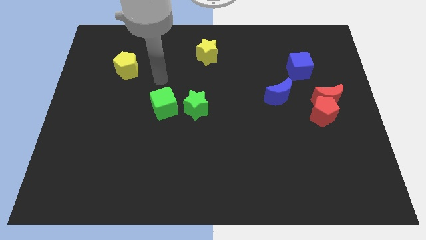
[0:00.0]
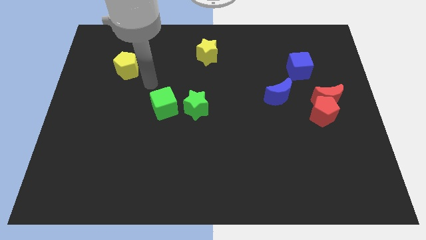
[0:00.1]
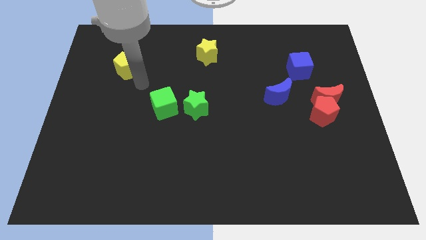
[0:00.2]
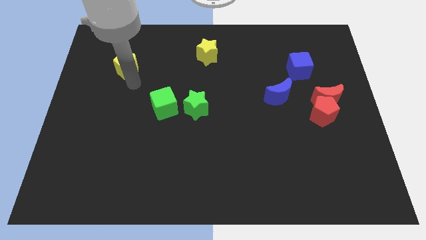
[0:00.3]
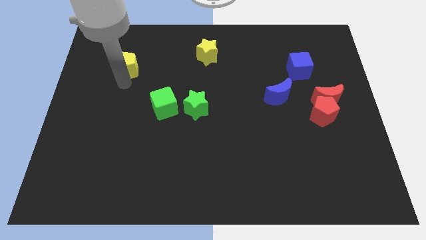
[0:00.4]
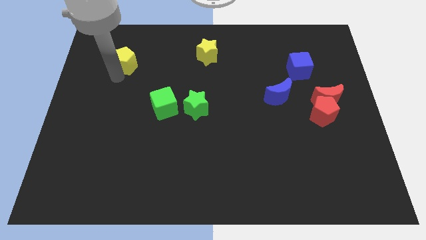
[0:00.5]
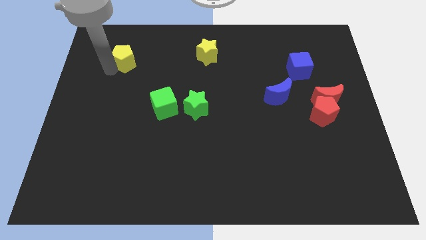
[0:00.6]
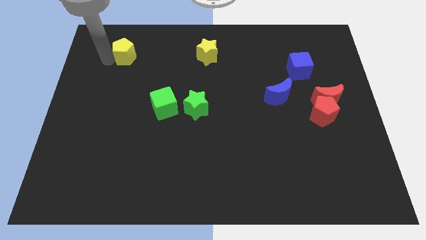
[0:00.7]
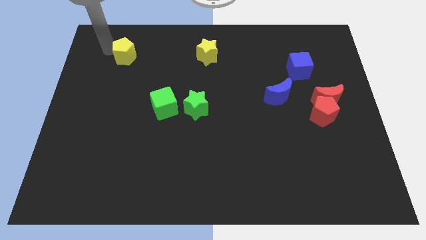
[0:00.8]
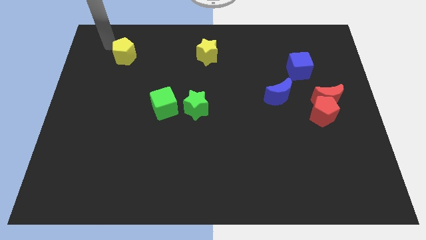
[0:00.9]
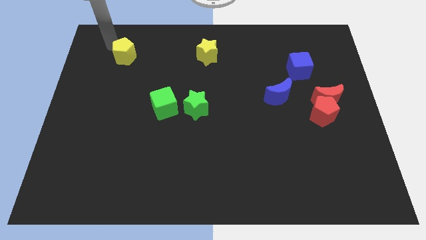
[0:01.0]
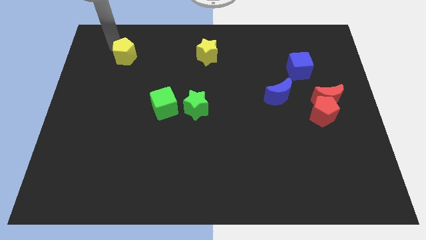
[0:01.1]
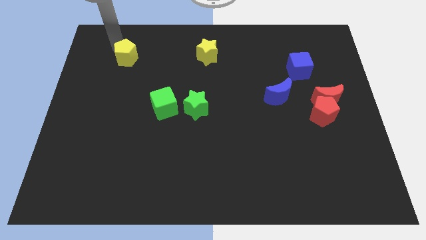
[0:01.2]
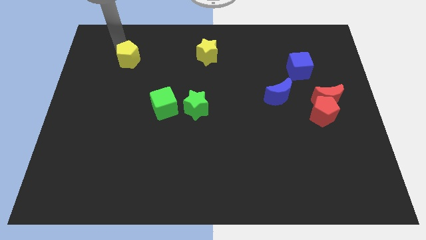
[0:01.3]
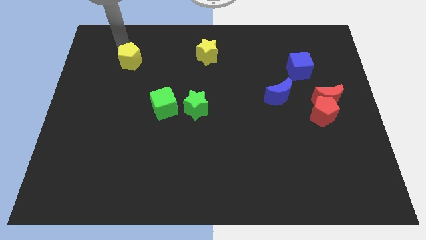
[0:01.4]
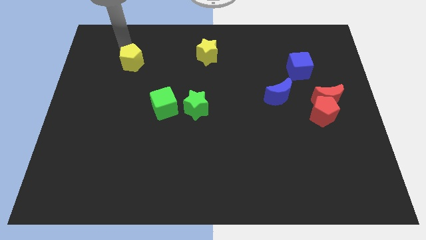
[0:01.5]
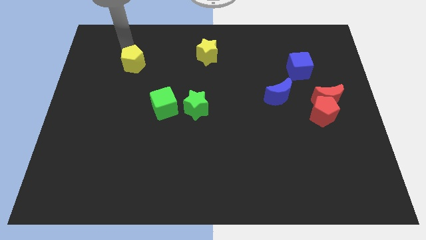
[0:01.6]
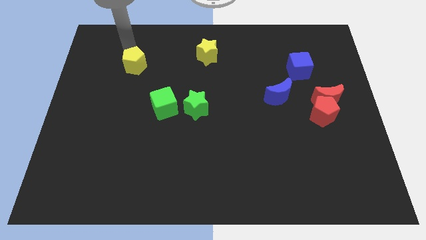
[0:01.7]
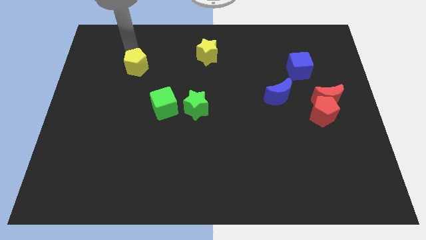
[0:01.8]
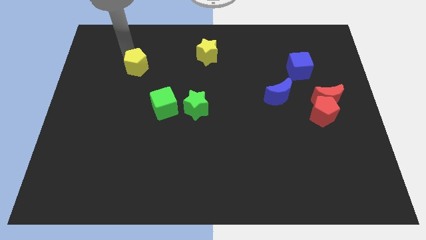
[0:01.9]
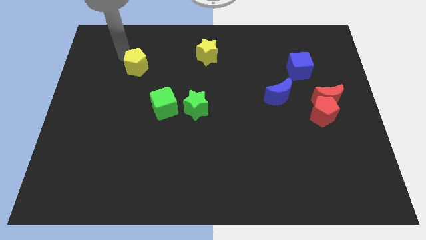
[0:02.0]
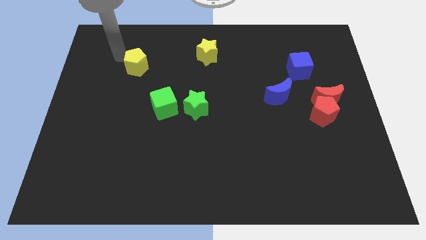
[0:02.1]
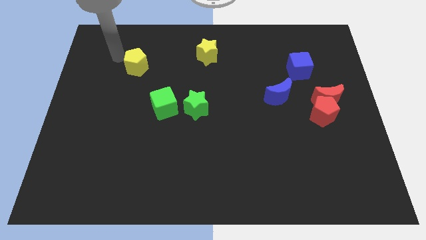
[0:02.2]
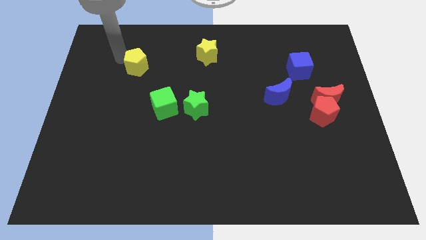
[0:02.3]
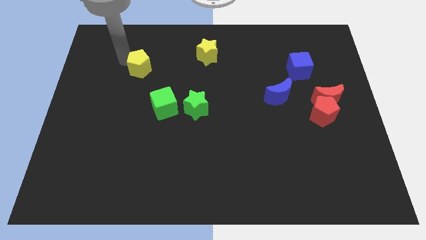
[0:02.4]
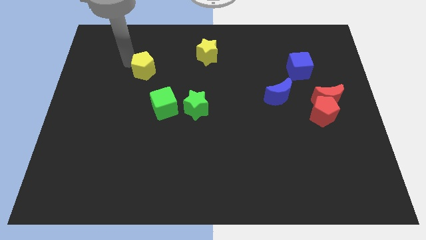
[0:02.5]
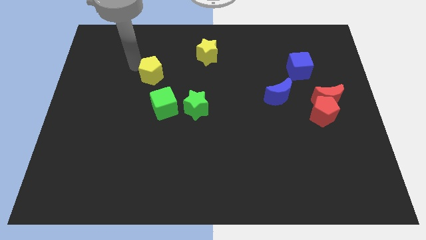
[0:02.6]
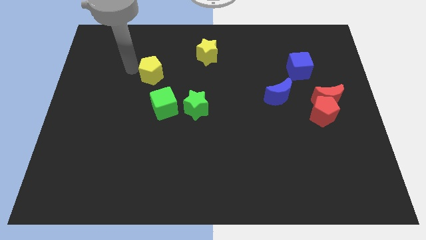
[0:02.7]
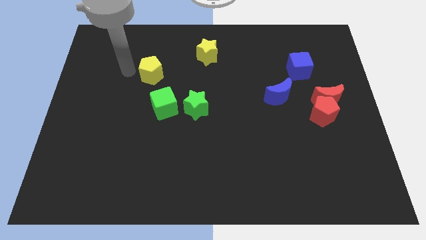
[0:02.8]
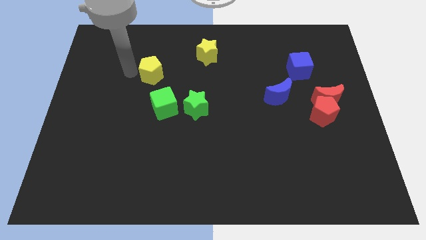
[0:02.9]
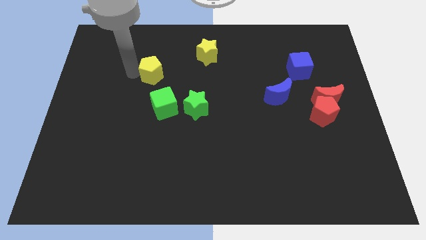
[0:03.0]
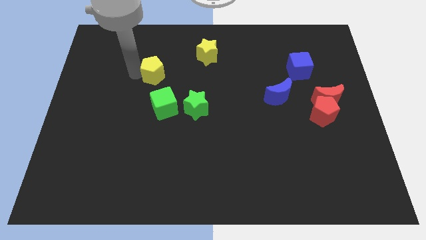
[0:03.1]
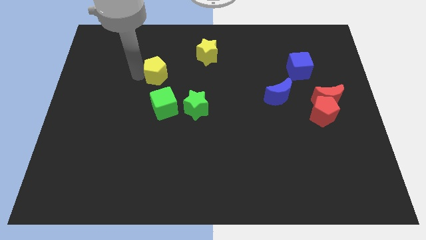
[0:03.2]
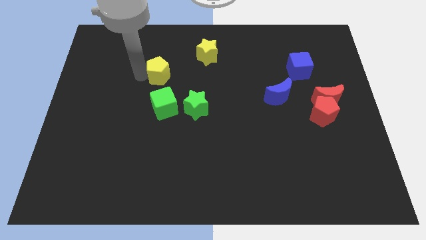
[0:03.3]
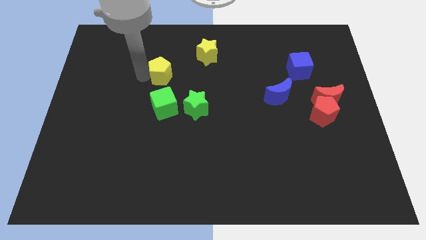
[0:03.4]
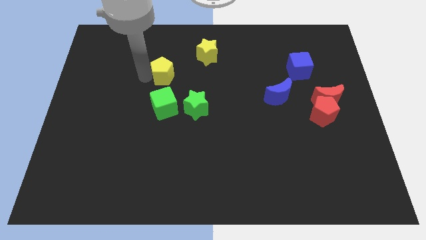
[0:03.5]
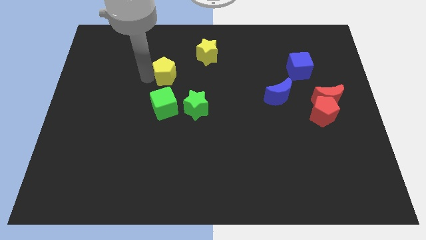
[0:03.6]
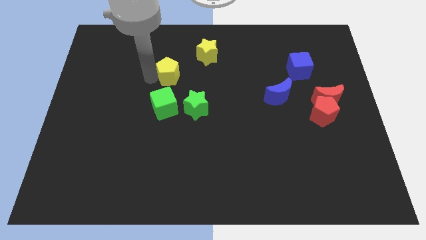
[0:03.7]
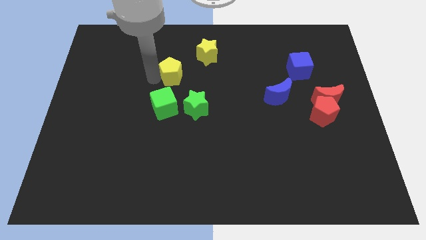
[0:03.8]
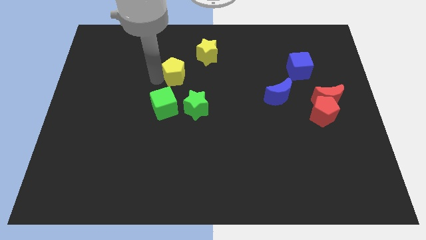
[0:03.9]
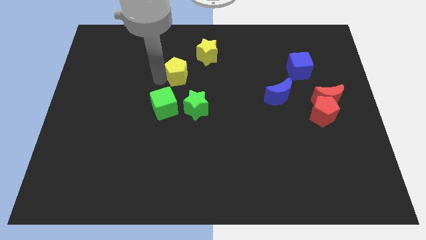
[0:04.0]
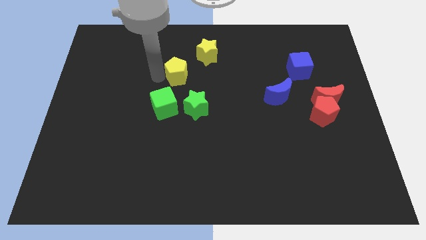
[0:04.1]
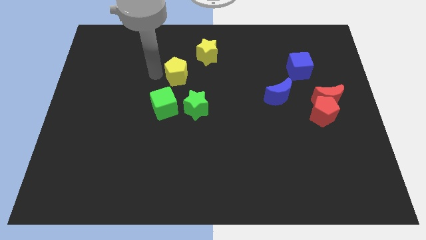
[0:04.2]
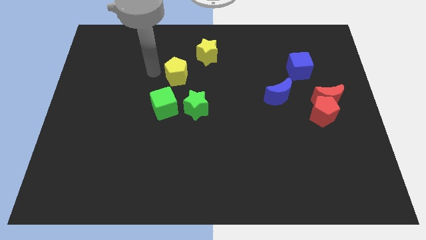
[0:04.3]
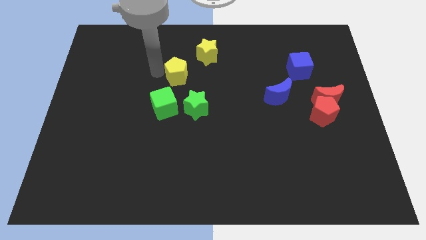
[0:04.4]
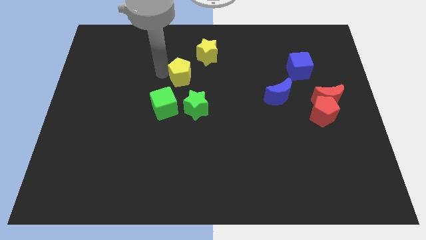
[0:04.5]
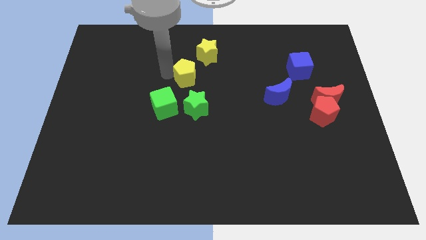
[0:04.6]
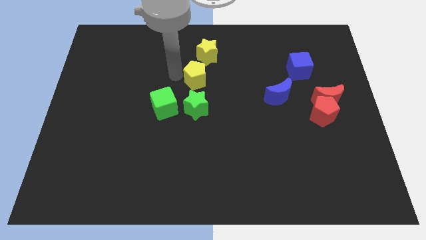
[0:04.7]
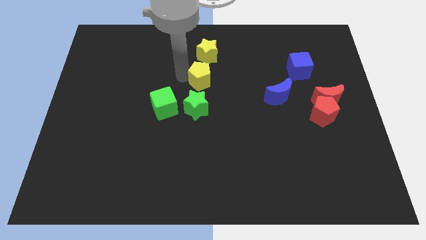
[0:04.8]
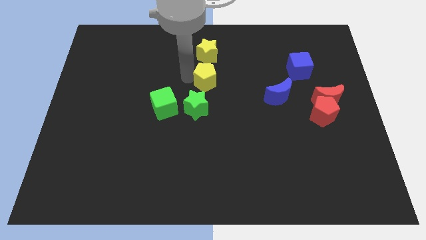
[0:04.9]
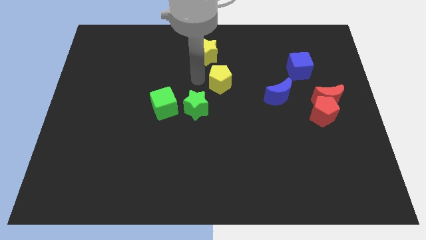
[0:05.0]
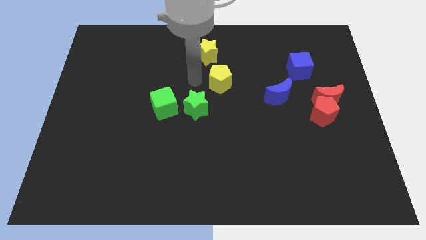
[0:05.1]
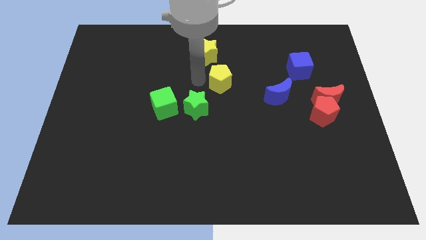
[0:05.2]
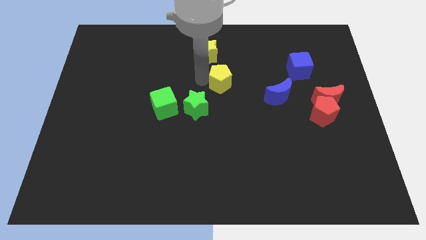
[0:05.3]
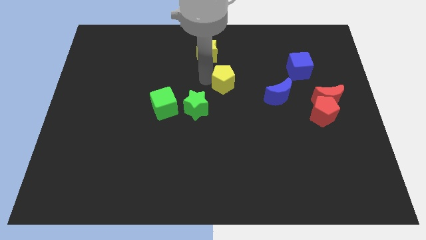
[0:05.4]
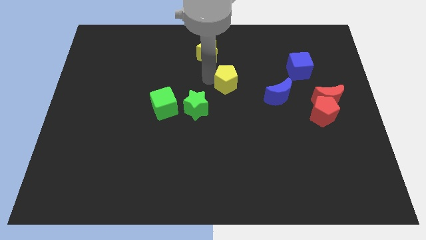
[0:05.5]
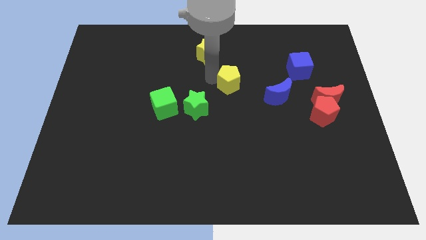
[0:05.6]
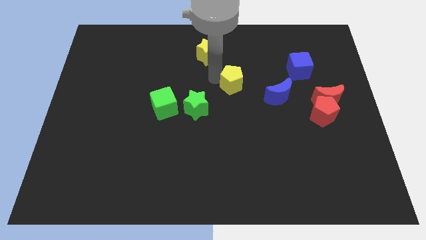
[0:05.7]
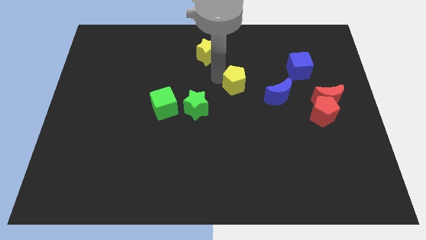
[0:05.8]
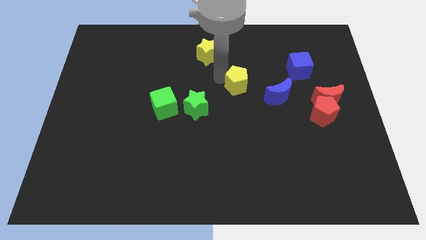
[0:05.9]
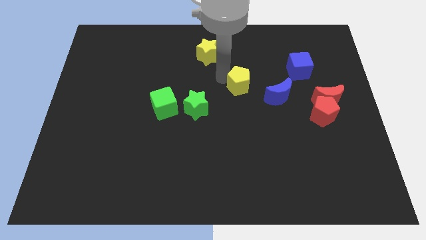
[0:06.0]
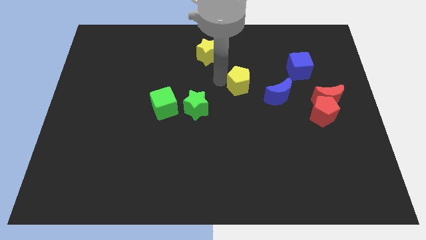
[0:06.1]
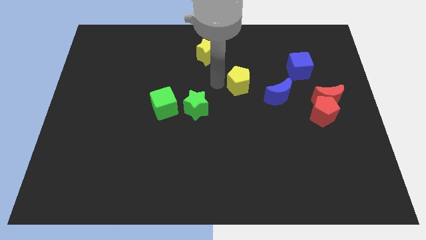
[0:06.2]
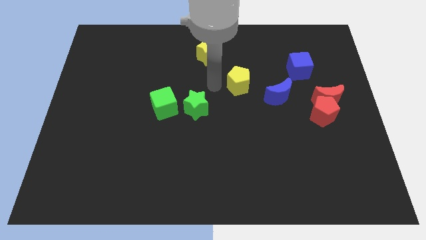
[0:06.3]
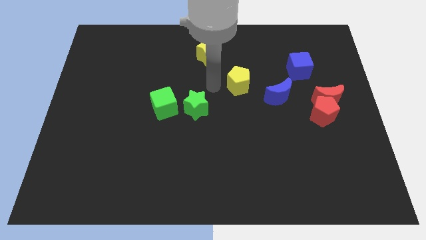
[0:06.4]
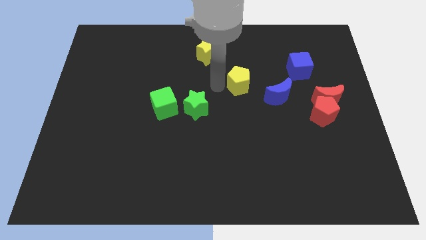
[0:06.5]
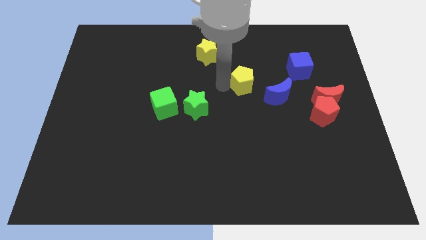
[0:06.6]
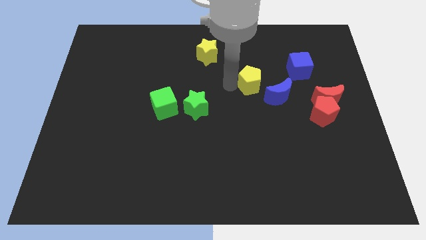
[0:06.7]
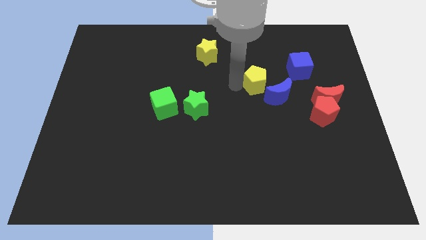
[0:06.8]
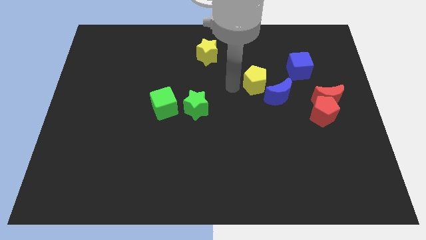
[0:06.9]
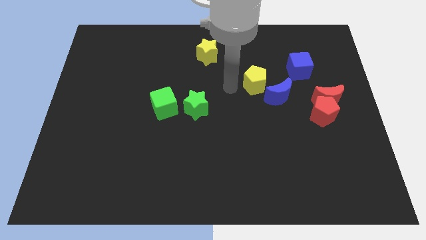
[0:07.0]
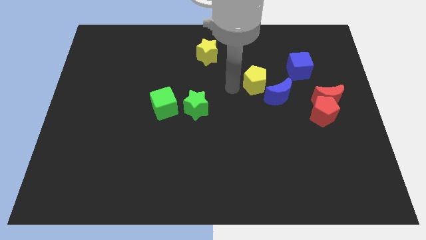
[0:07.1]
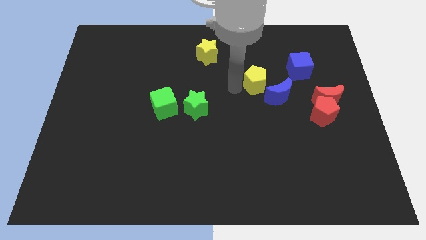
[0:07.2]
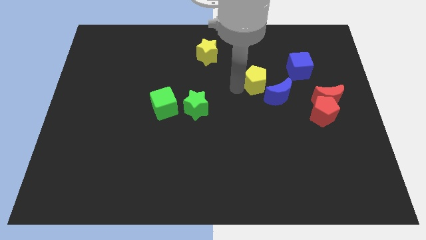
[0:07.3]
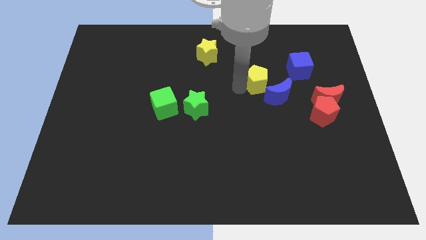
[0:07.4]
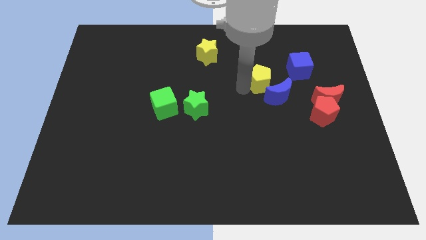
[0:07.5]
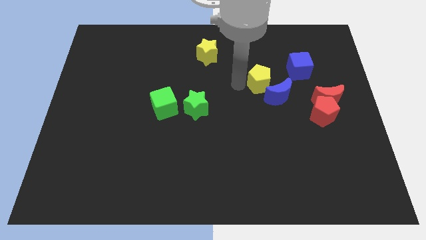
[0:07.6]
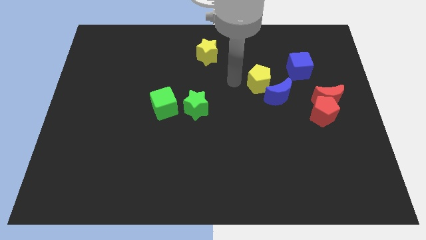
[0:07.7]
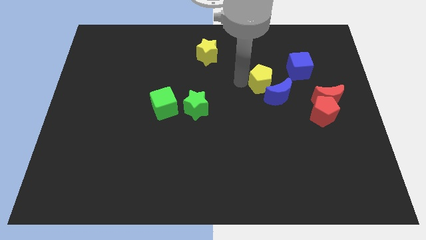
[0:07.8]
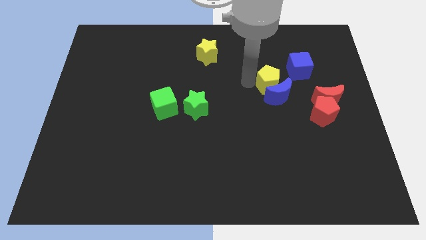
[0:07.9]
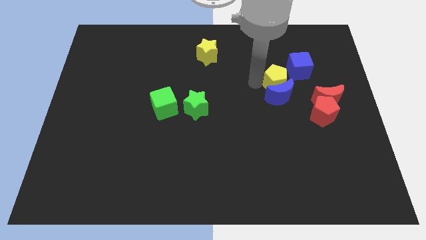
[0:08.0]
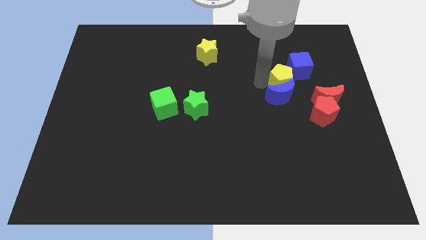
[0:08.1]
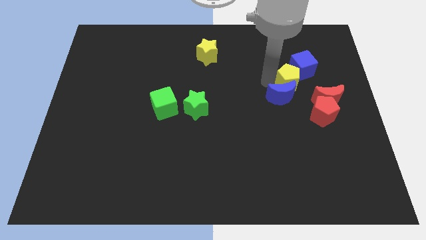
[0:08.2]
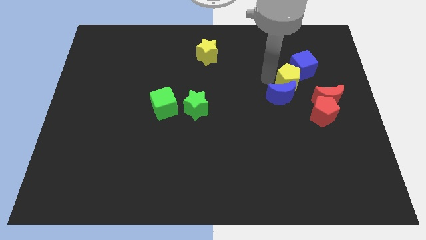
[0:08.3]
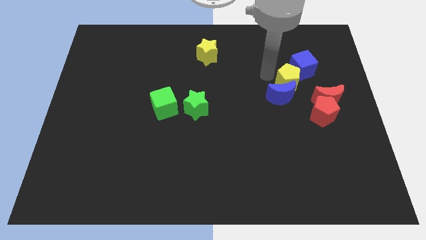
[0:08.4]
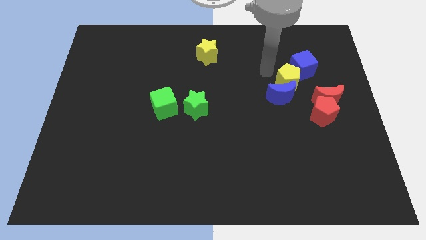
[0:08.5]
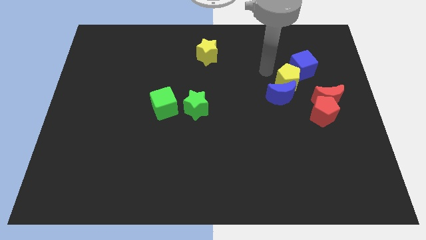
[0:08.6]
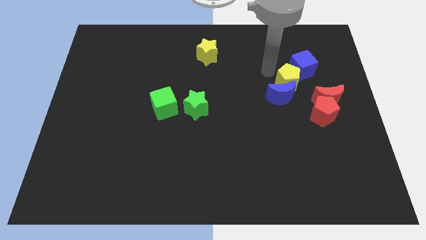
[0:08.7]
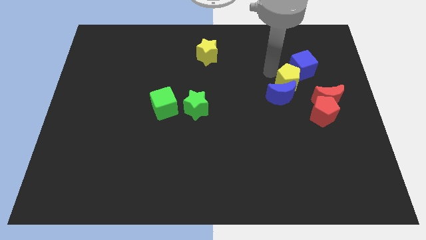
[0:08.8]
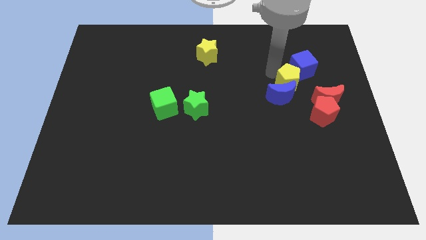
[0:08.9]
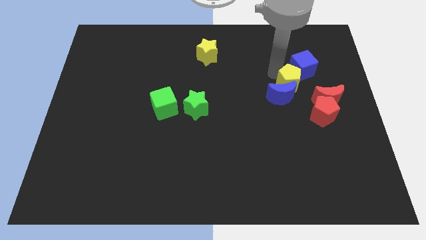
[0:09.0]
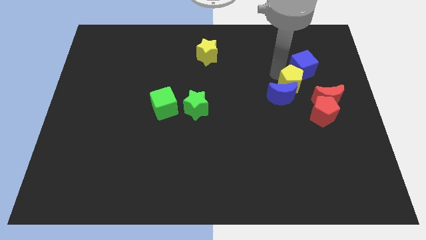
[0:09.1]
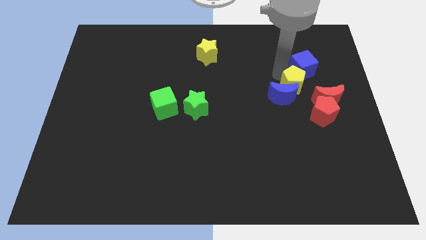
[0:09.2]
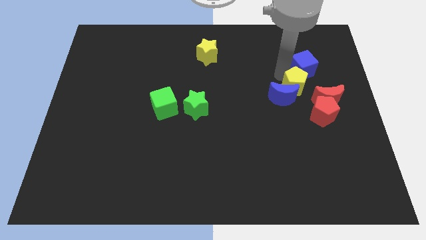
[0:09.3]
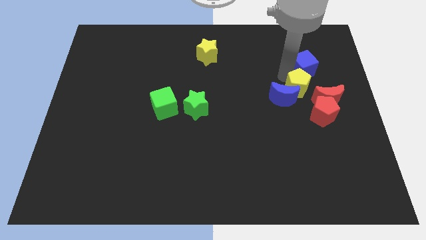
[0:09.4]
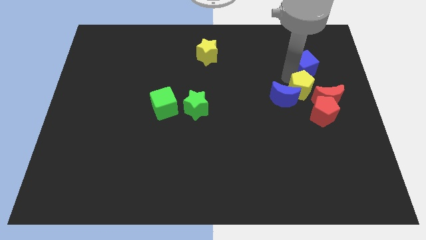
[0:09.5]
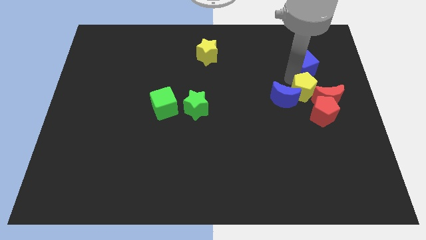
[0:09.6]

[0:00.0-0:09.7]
put the yellow pentagon towards the red moon
